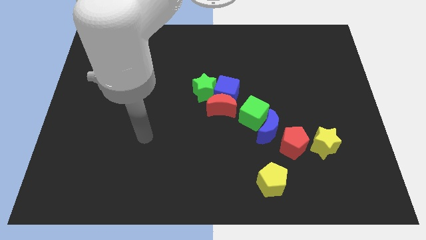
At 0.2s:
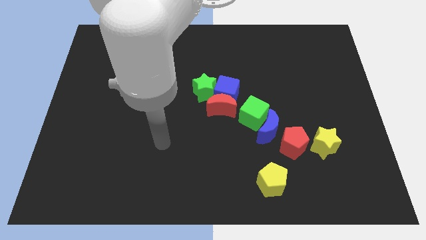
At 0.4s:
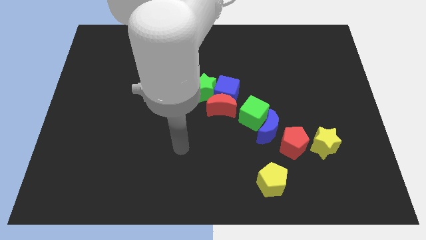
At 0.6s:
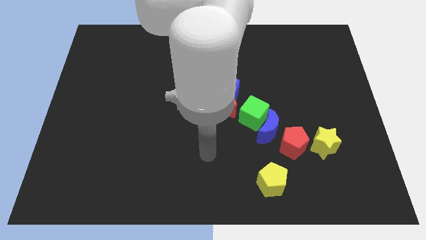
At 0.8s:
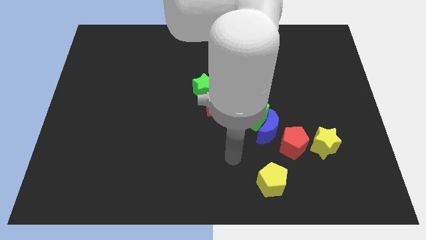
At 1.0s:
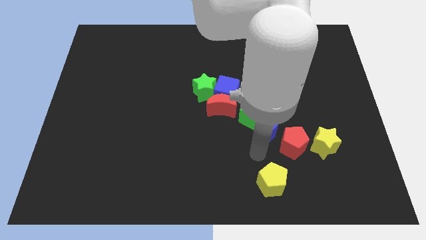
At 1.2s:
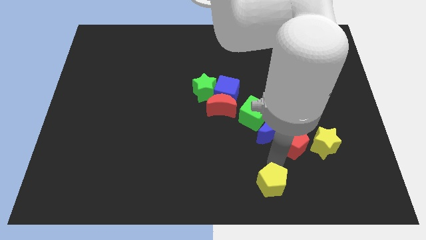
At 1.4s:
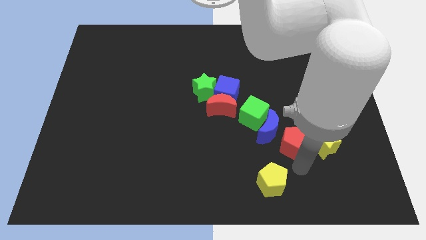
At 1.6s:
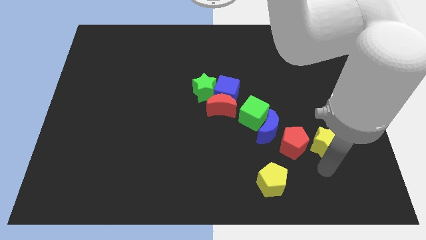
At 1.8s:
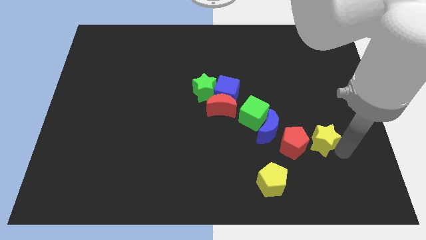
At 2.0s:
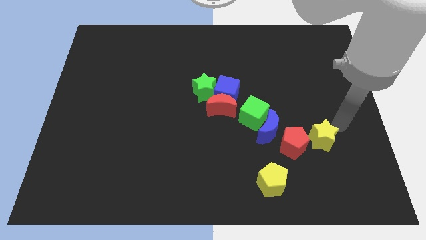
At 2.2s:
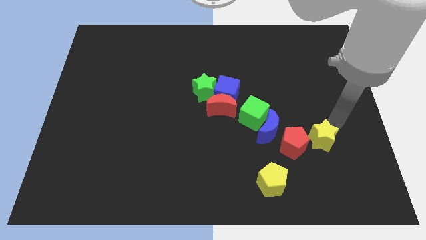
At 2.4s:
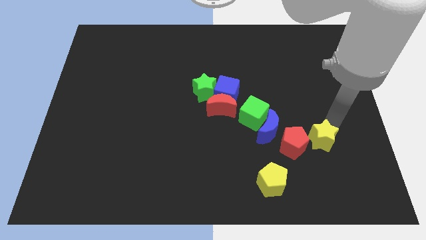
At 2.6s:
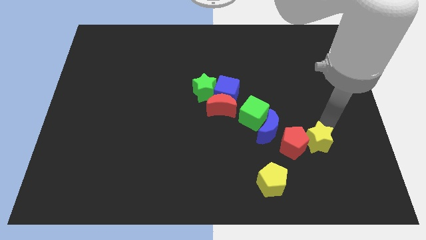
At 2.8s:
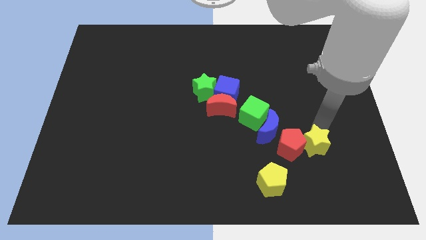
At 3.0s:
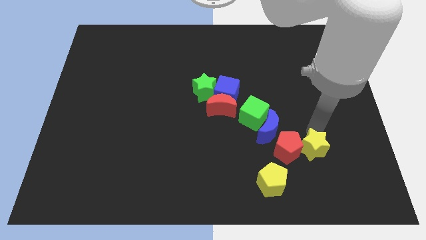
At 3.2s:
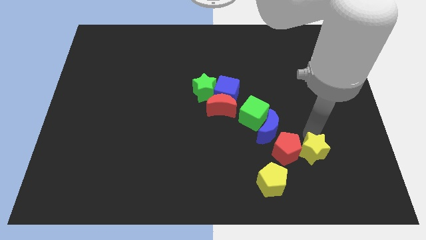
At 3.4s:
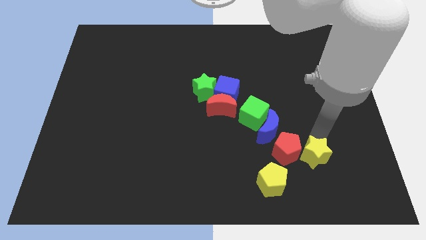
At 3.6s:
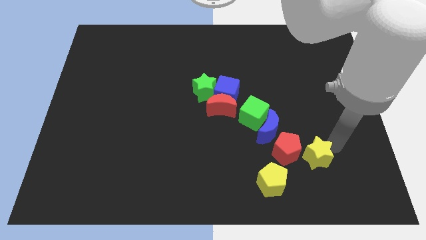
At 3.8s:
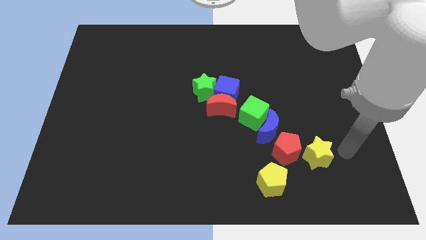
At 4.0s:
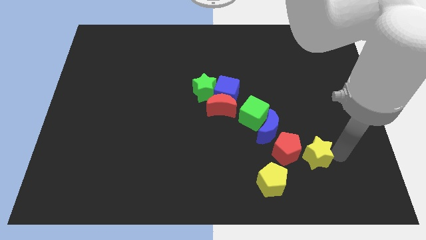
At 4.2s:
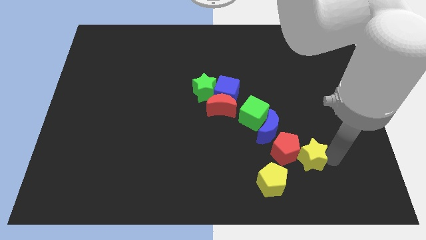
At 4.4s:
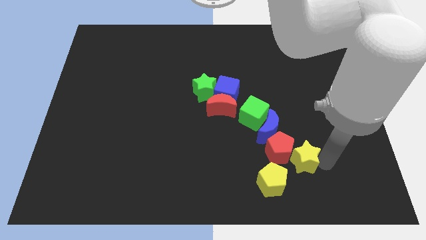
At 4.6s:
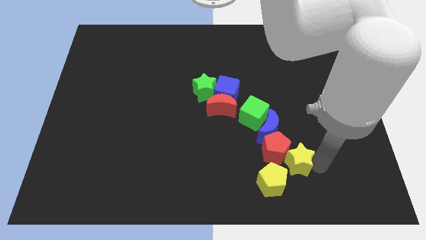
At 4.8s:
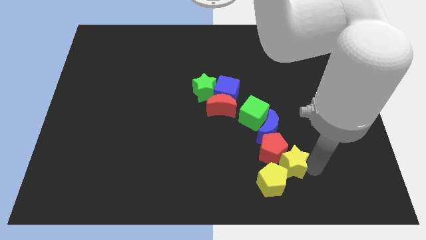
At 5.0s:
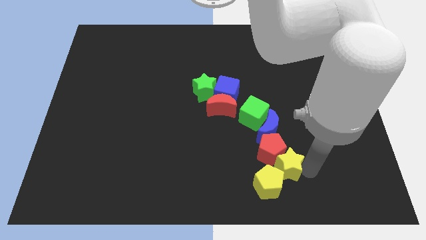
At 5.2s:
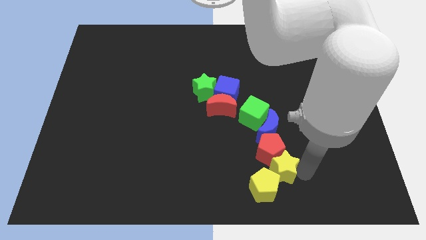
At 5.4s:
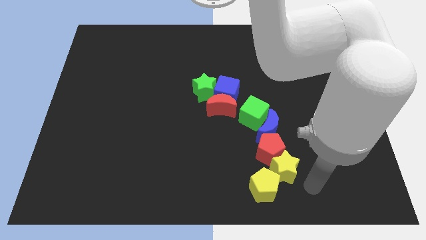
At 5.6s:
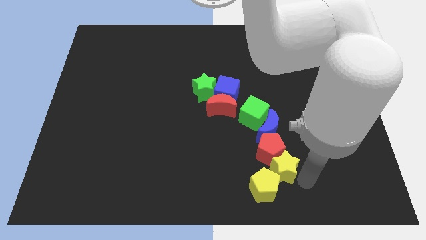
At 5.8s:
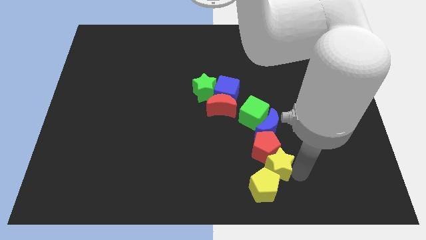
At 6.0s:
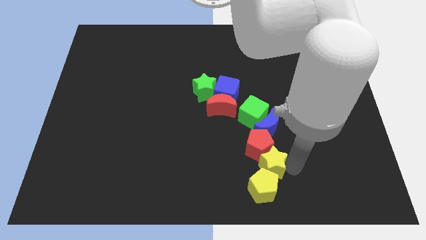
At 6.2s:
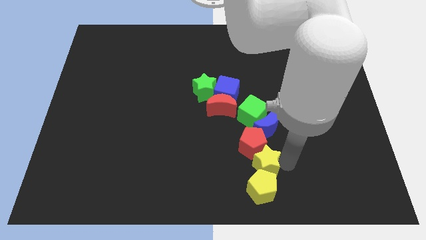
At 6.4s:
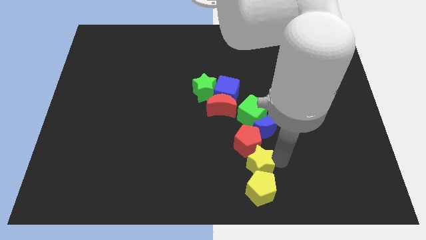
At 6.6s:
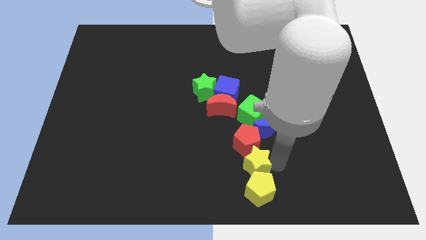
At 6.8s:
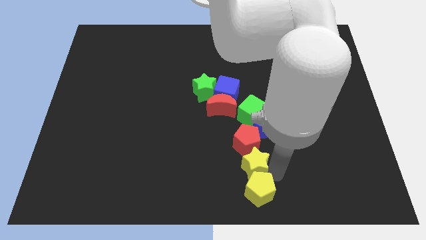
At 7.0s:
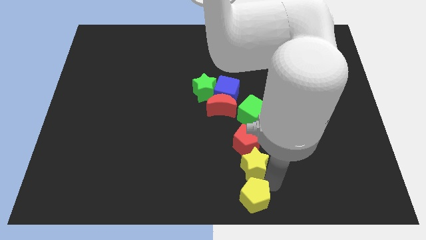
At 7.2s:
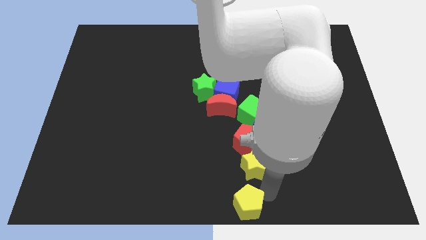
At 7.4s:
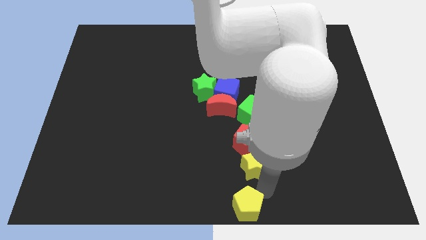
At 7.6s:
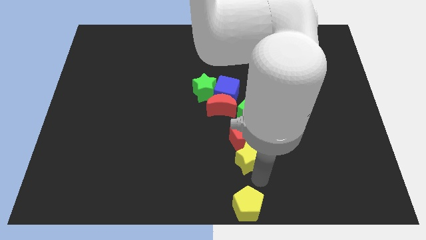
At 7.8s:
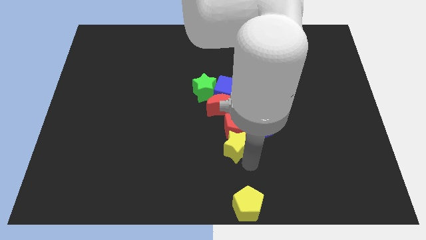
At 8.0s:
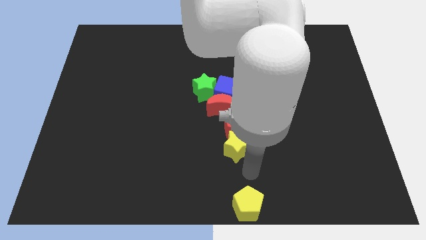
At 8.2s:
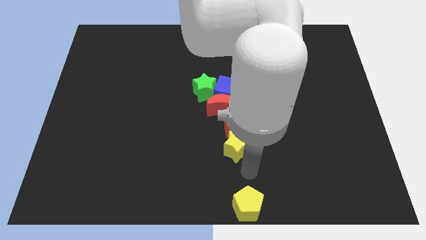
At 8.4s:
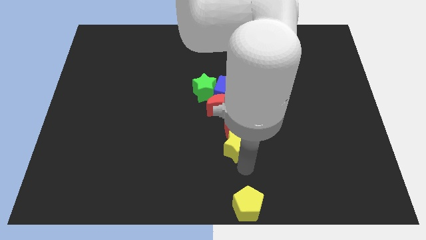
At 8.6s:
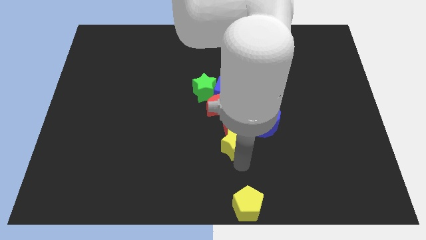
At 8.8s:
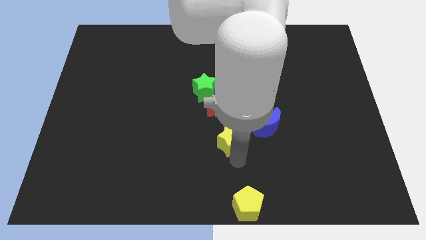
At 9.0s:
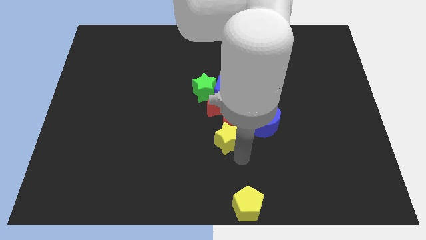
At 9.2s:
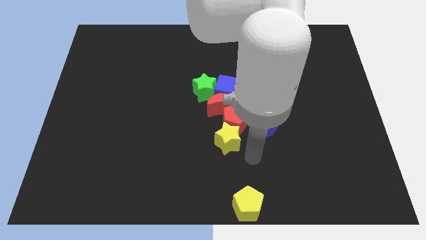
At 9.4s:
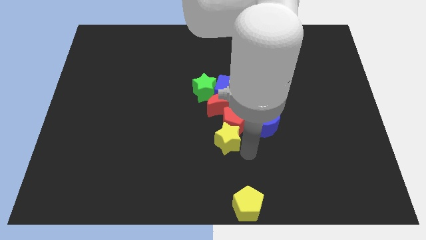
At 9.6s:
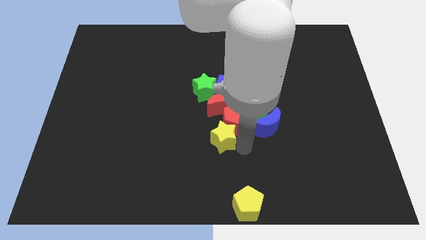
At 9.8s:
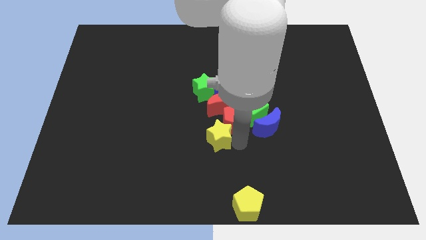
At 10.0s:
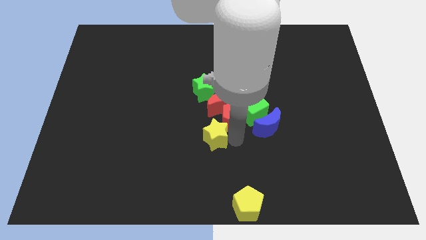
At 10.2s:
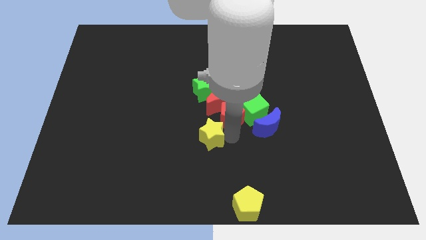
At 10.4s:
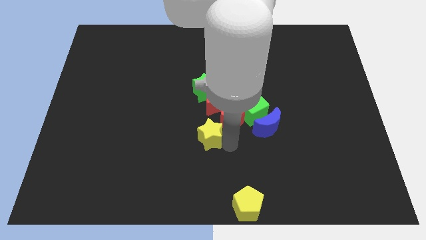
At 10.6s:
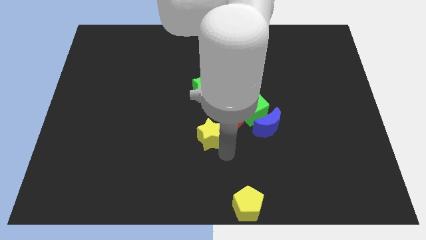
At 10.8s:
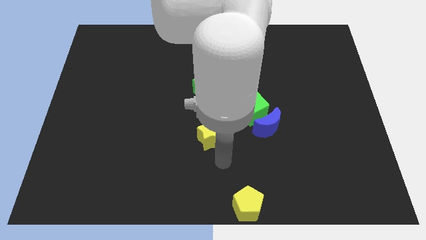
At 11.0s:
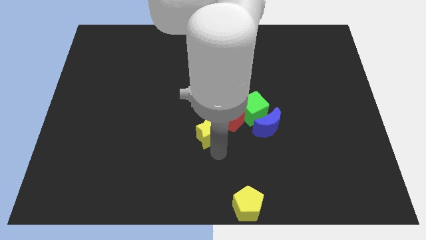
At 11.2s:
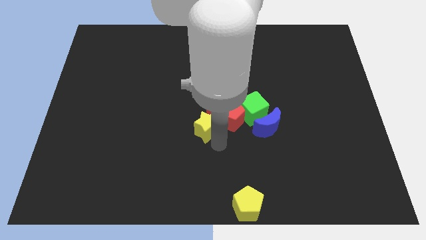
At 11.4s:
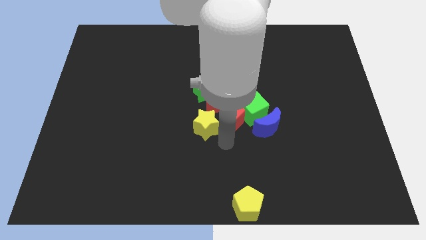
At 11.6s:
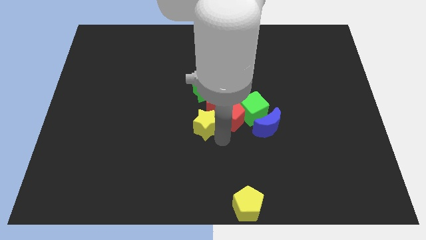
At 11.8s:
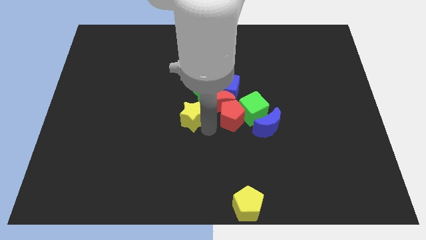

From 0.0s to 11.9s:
push the yellow star diagonally down and to the left of the green star
